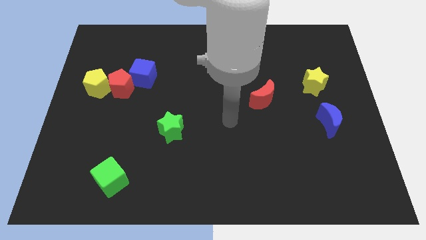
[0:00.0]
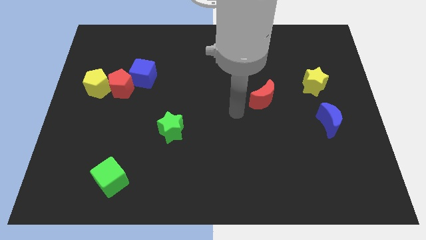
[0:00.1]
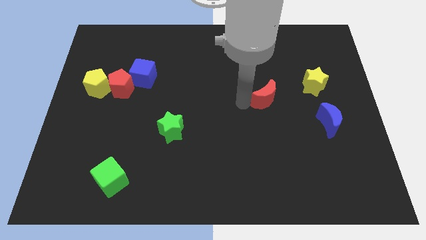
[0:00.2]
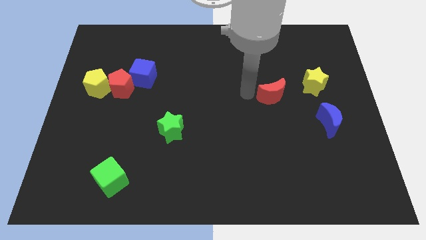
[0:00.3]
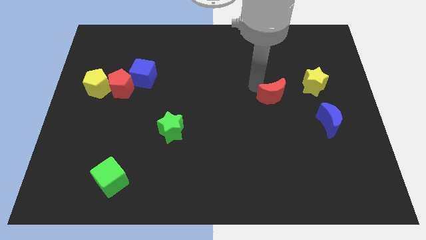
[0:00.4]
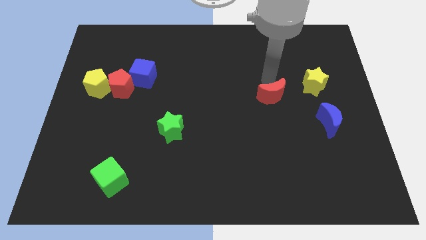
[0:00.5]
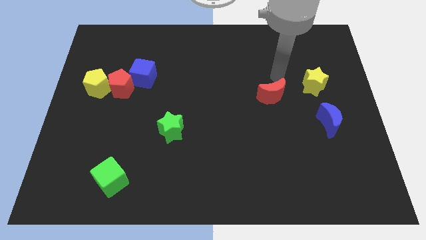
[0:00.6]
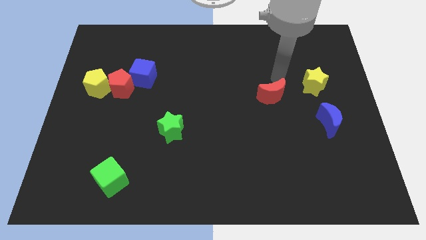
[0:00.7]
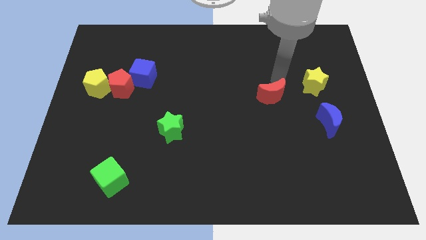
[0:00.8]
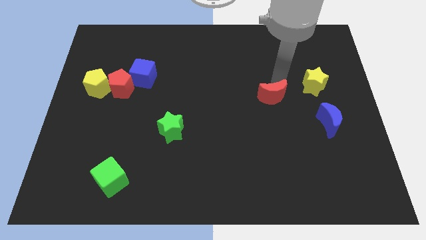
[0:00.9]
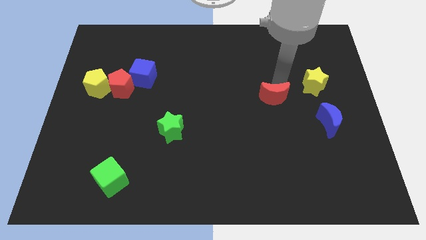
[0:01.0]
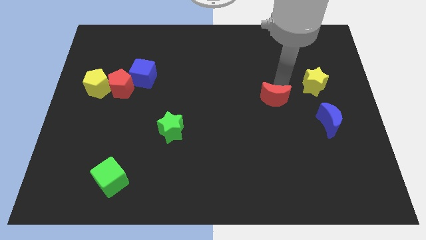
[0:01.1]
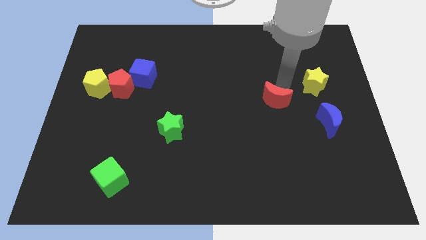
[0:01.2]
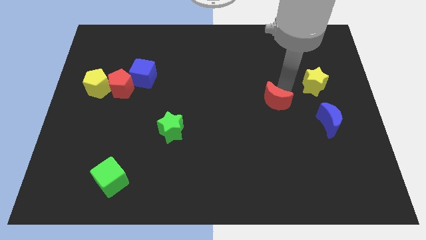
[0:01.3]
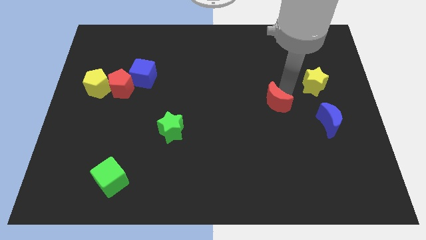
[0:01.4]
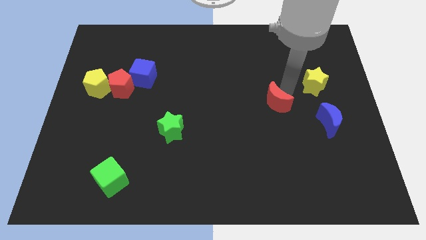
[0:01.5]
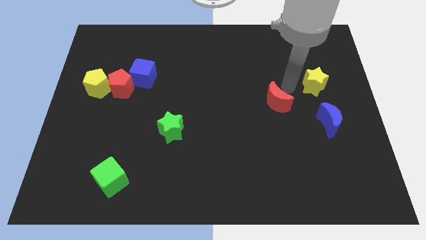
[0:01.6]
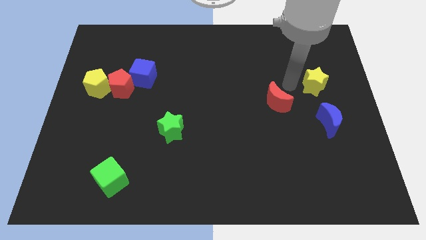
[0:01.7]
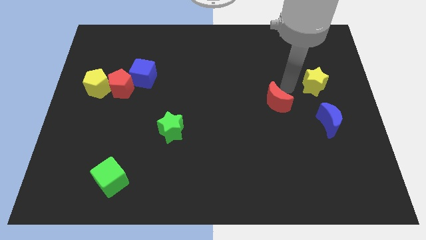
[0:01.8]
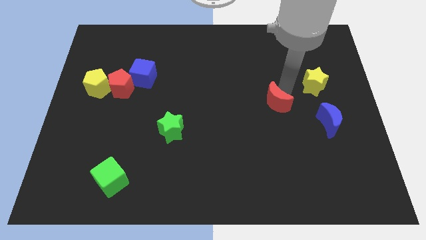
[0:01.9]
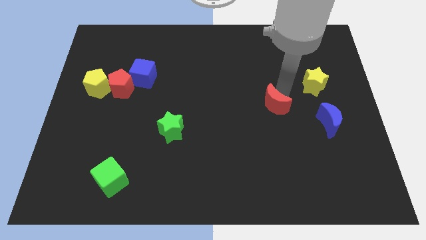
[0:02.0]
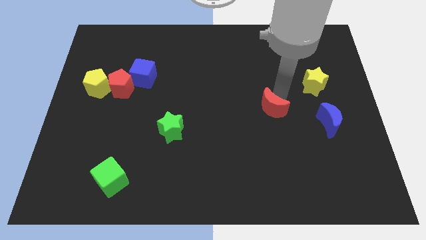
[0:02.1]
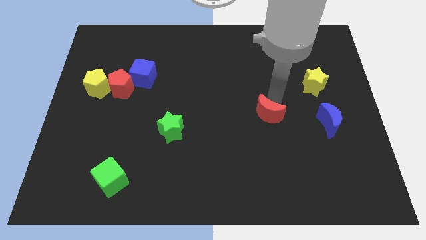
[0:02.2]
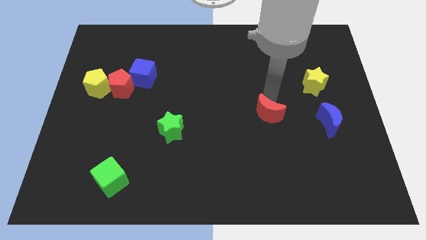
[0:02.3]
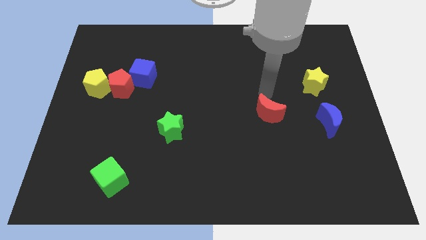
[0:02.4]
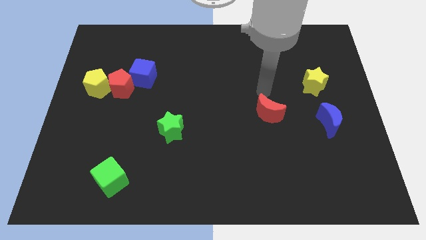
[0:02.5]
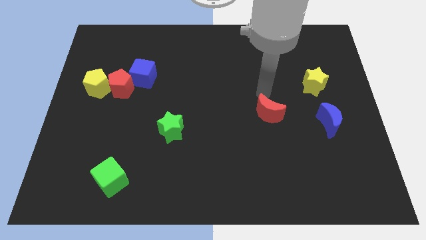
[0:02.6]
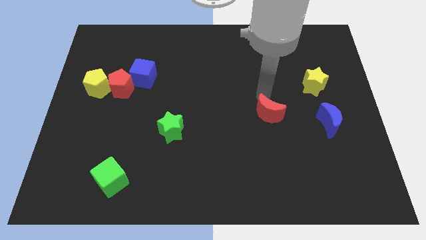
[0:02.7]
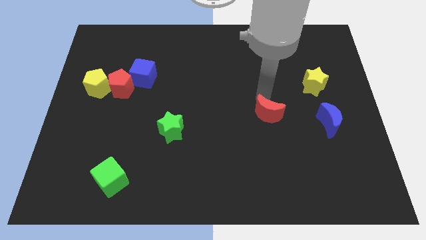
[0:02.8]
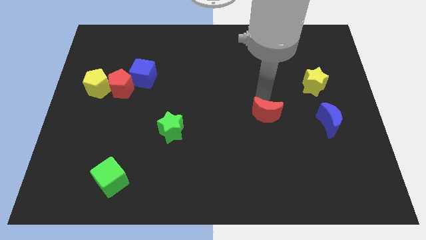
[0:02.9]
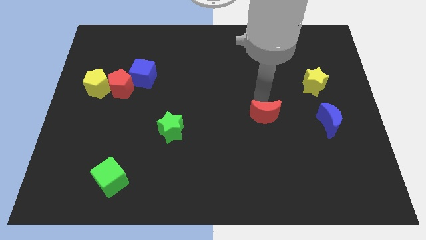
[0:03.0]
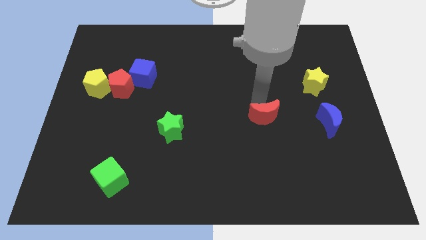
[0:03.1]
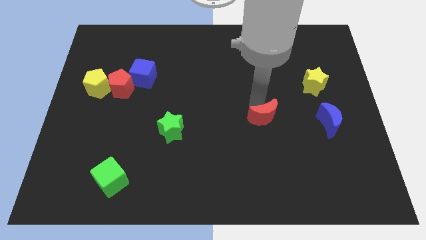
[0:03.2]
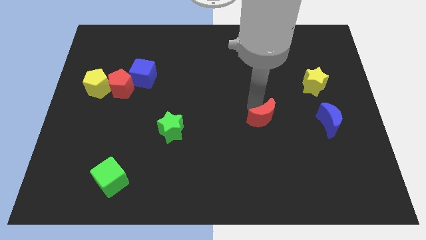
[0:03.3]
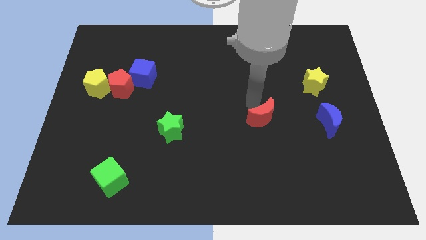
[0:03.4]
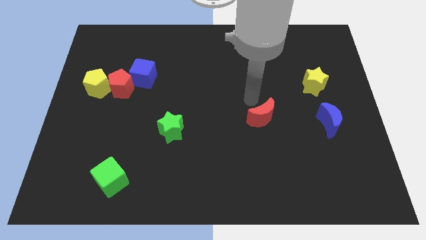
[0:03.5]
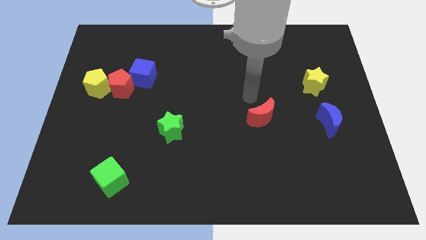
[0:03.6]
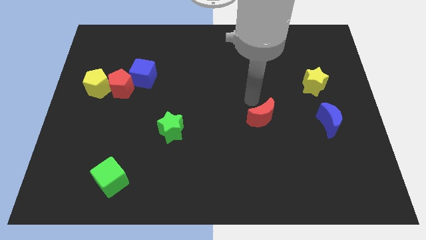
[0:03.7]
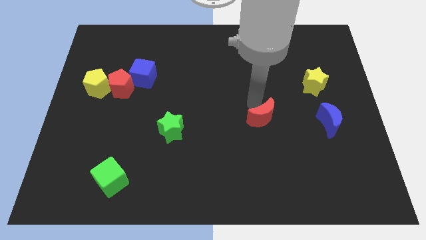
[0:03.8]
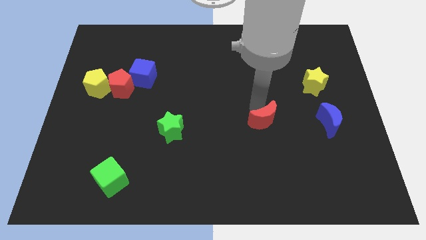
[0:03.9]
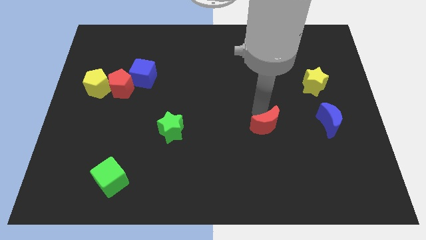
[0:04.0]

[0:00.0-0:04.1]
move the red moon a little downwards

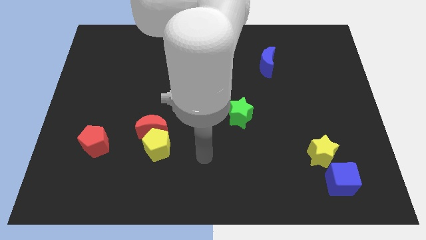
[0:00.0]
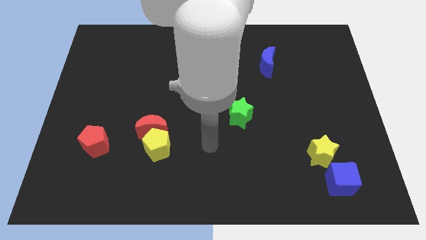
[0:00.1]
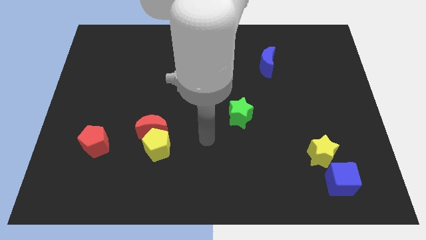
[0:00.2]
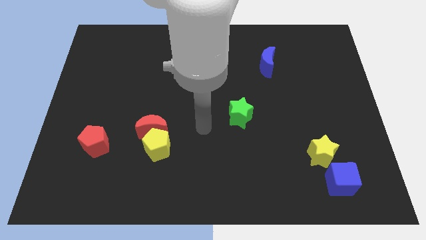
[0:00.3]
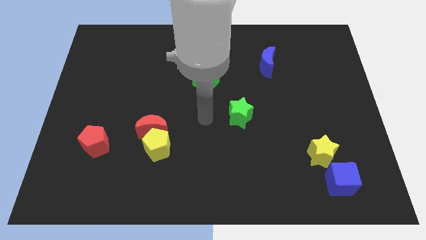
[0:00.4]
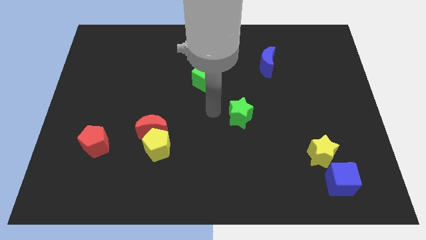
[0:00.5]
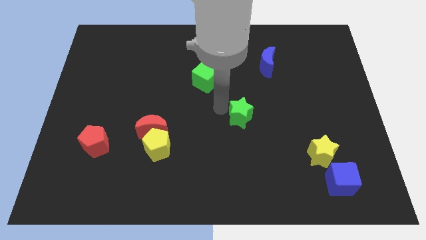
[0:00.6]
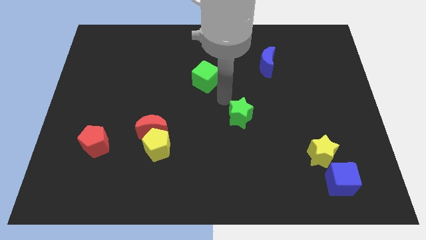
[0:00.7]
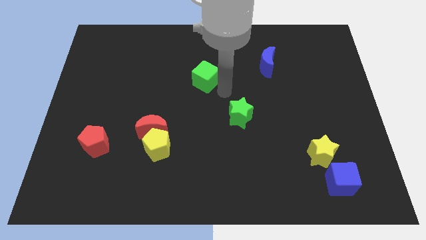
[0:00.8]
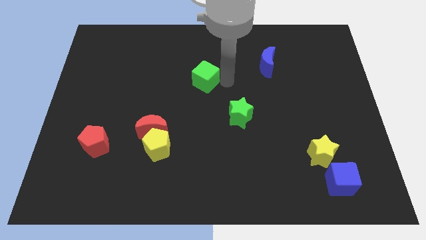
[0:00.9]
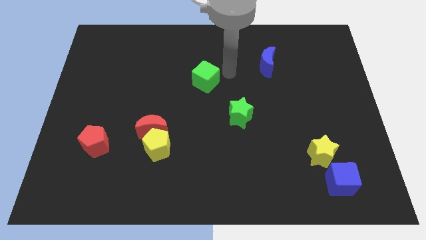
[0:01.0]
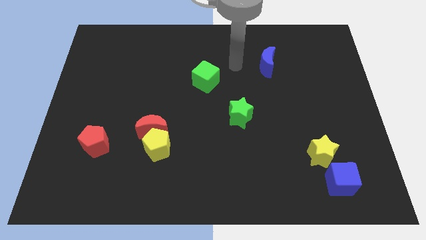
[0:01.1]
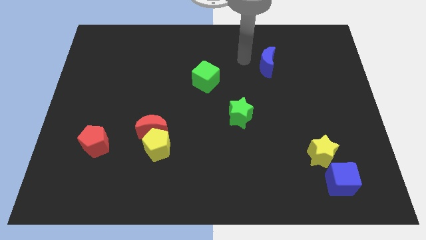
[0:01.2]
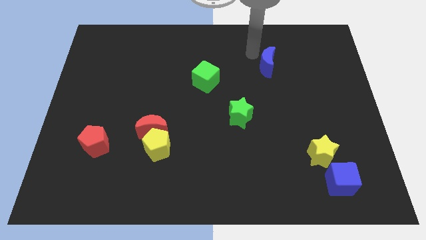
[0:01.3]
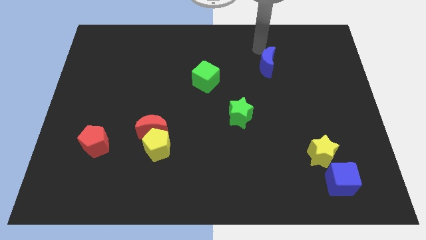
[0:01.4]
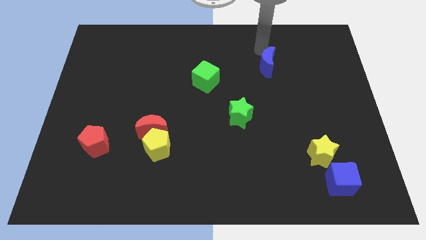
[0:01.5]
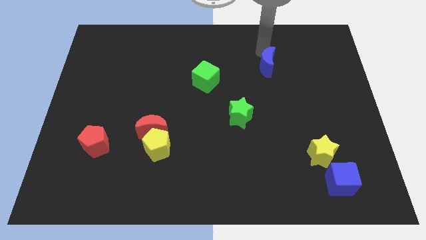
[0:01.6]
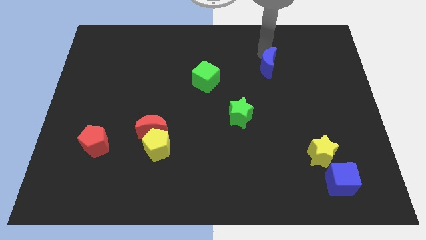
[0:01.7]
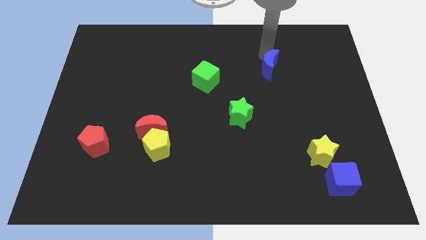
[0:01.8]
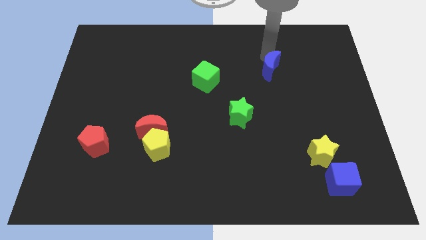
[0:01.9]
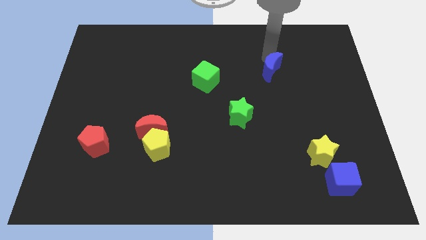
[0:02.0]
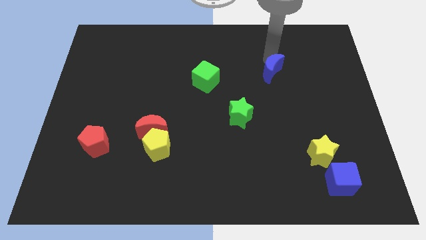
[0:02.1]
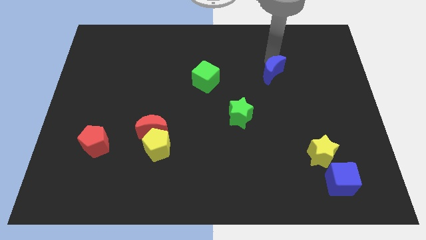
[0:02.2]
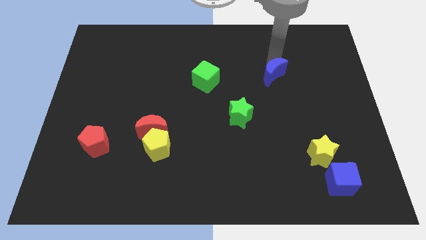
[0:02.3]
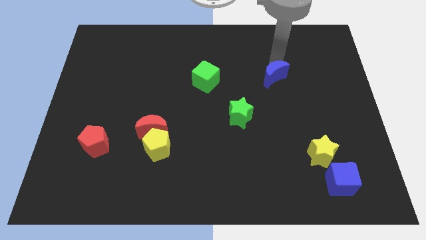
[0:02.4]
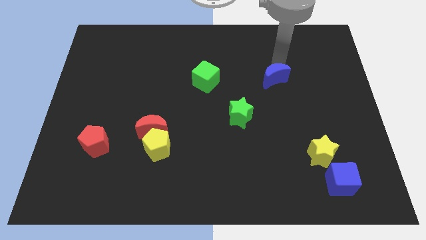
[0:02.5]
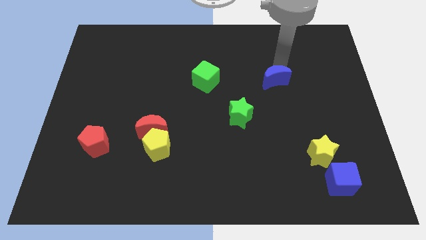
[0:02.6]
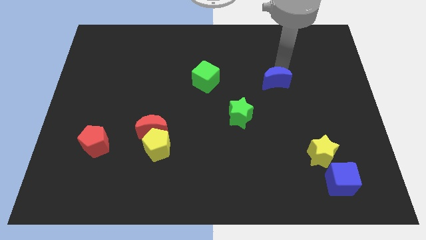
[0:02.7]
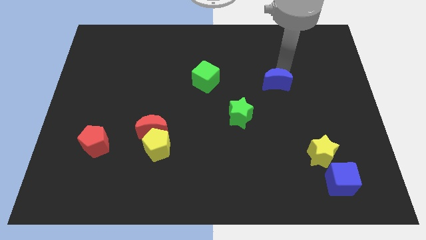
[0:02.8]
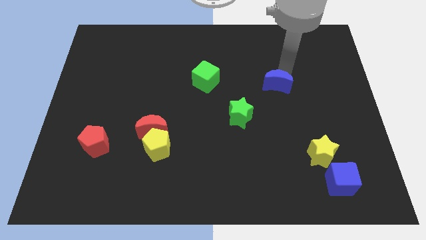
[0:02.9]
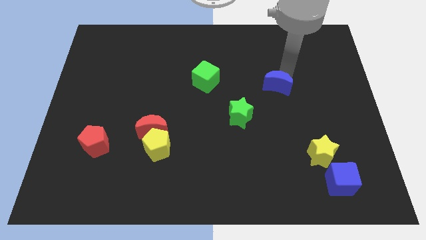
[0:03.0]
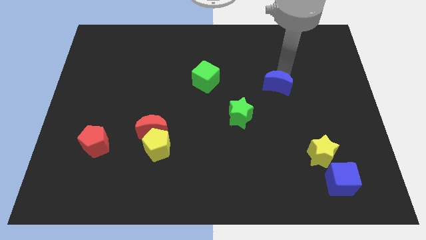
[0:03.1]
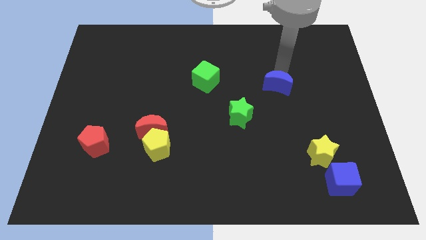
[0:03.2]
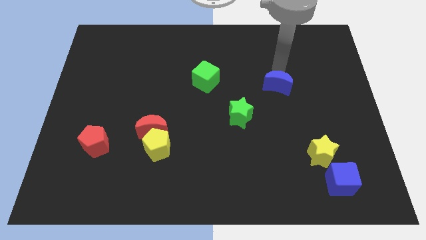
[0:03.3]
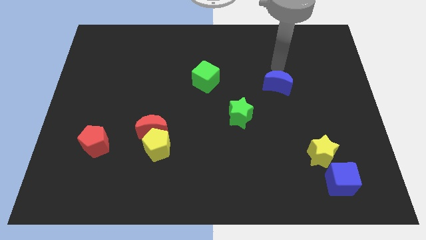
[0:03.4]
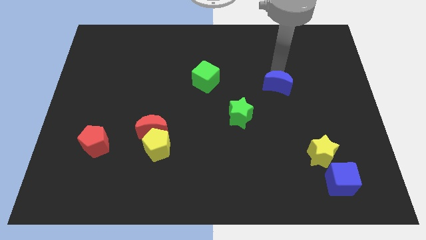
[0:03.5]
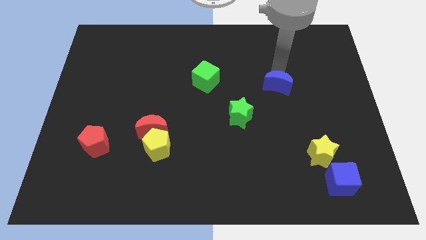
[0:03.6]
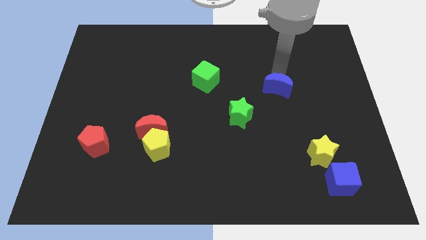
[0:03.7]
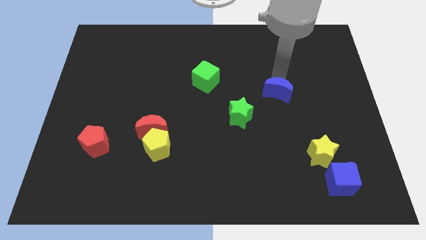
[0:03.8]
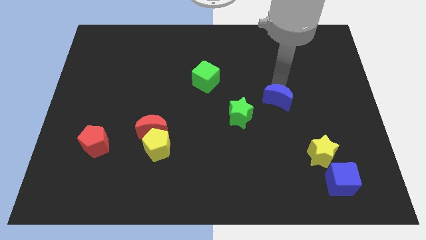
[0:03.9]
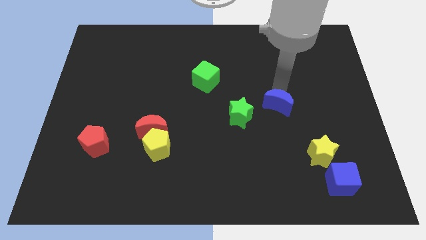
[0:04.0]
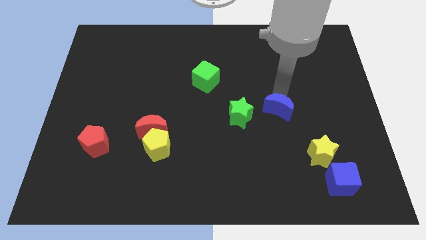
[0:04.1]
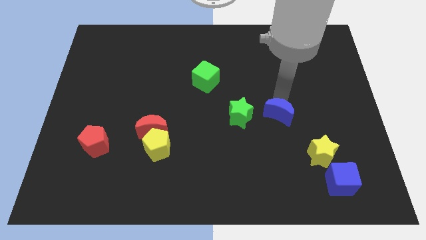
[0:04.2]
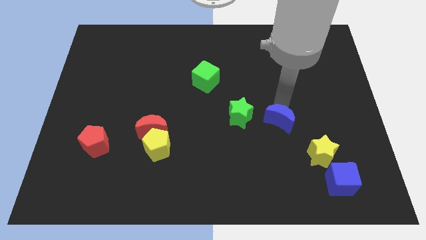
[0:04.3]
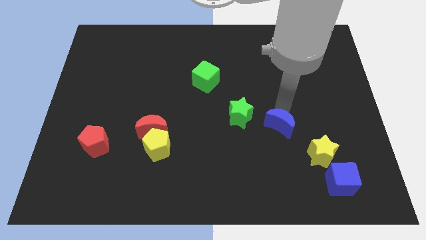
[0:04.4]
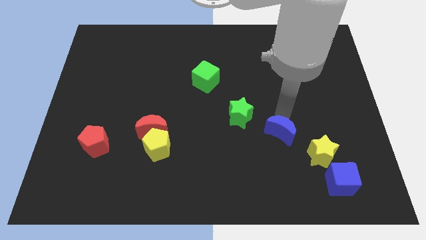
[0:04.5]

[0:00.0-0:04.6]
slide the blue moon downwards
